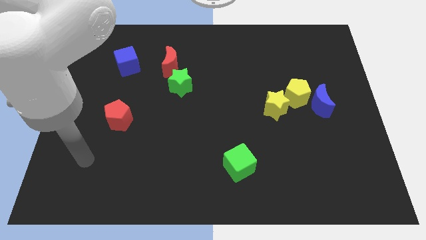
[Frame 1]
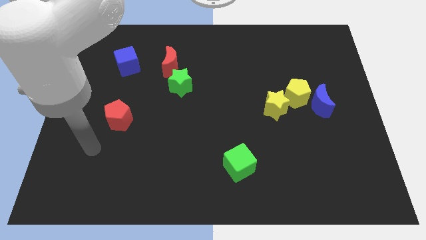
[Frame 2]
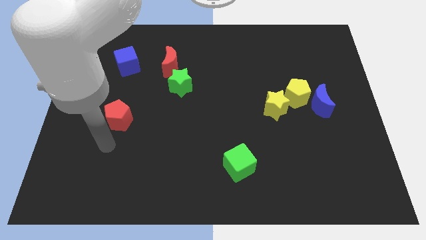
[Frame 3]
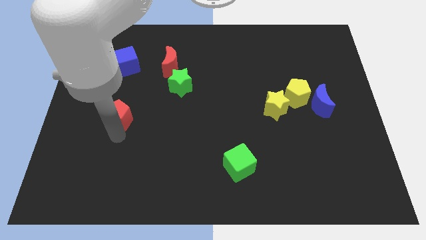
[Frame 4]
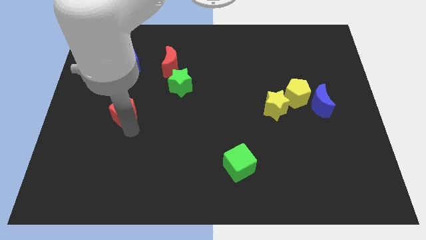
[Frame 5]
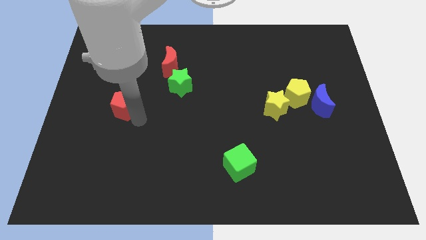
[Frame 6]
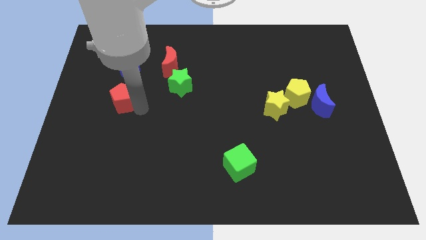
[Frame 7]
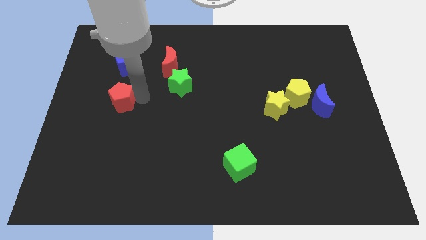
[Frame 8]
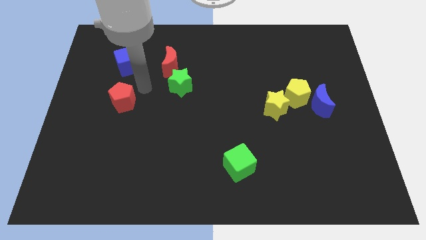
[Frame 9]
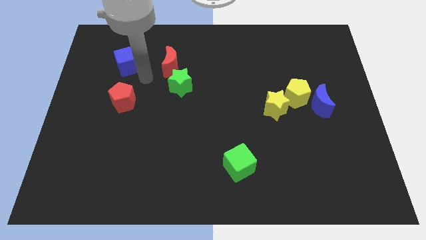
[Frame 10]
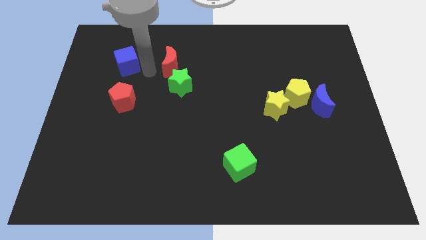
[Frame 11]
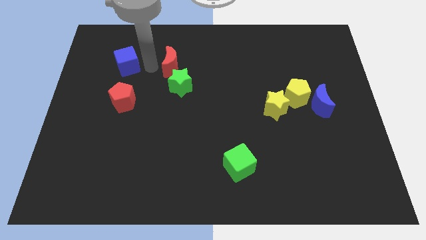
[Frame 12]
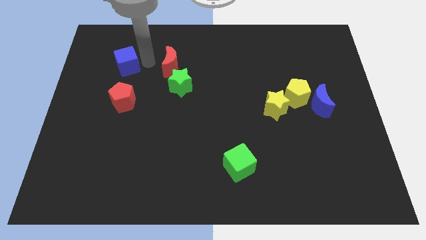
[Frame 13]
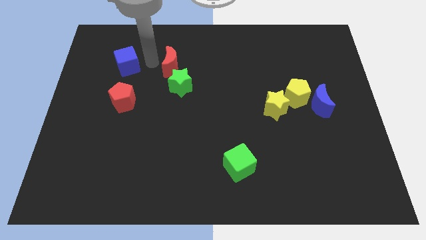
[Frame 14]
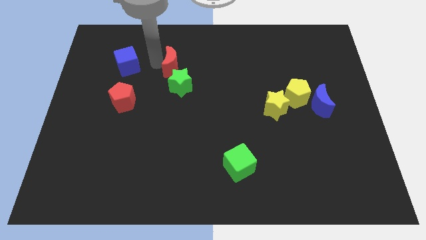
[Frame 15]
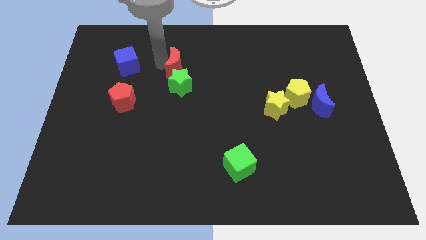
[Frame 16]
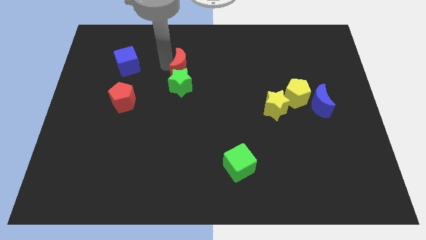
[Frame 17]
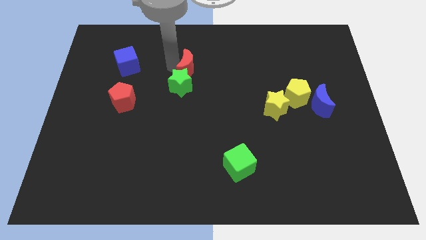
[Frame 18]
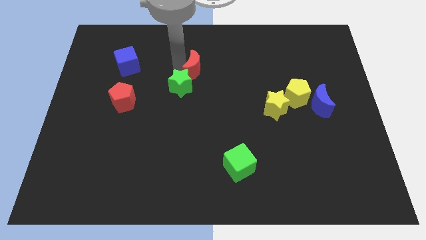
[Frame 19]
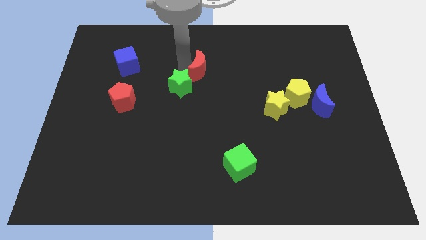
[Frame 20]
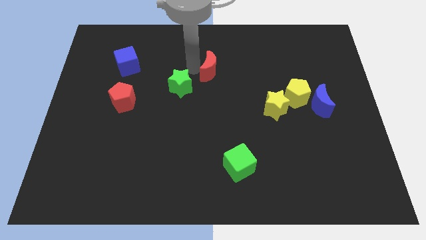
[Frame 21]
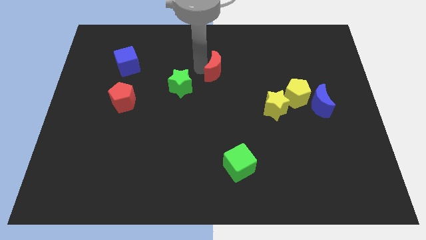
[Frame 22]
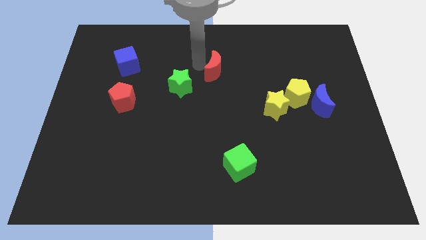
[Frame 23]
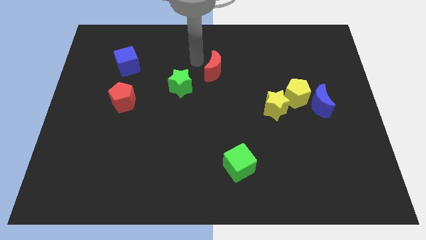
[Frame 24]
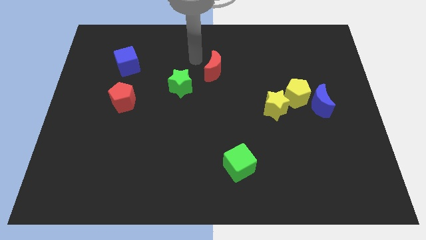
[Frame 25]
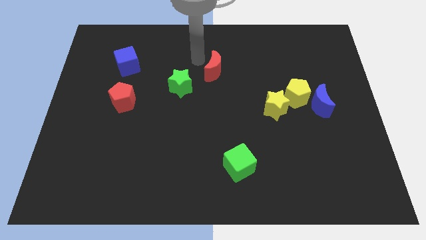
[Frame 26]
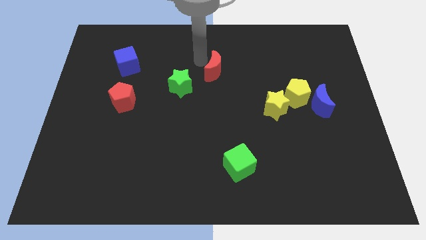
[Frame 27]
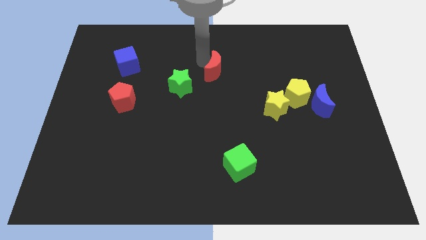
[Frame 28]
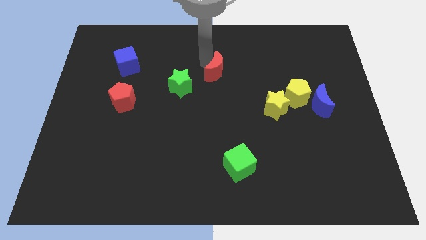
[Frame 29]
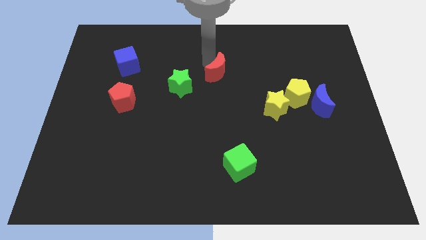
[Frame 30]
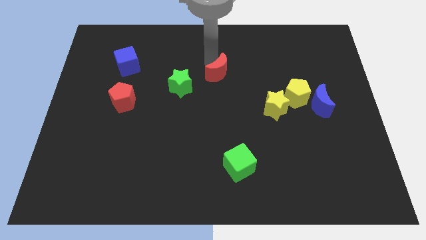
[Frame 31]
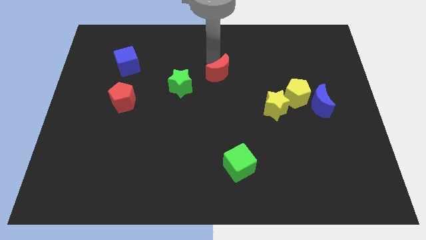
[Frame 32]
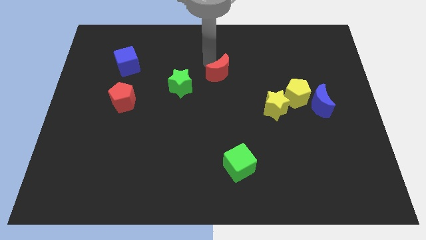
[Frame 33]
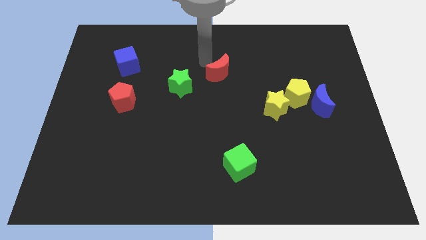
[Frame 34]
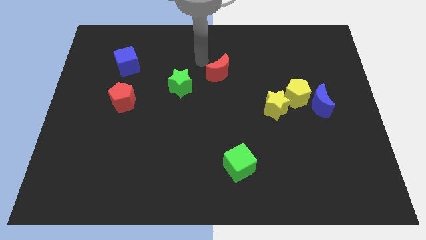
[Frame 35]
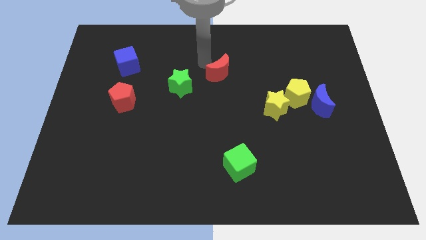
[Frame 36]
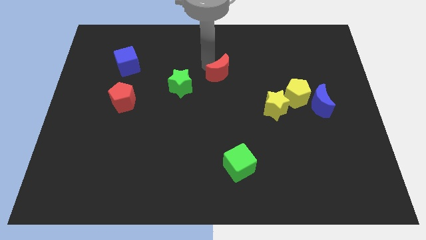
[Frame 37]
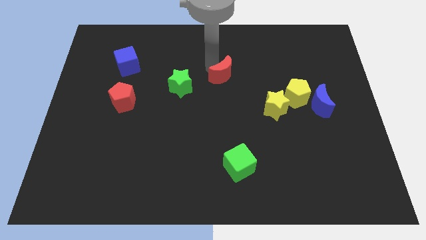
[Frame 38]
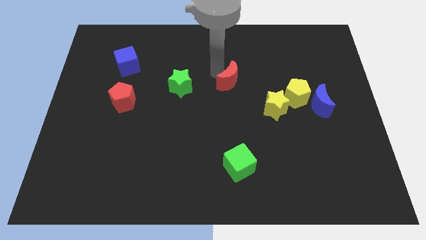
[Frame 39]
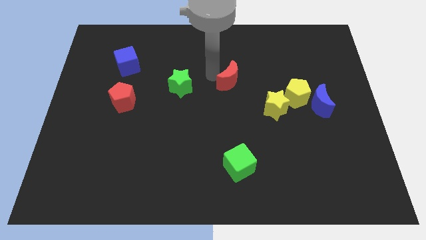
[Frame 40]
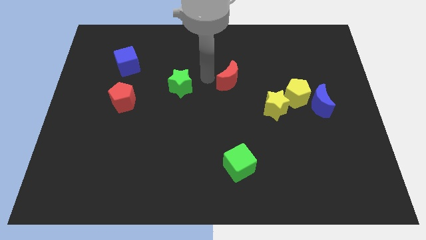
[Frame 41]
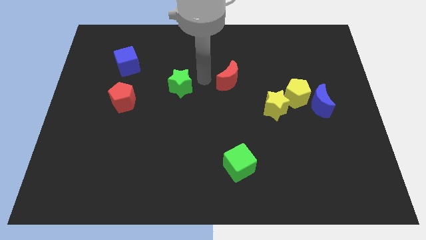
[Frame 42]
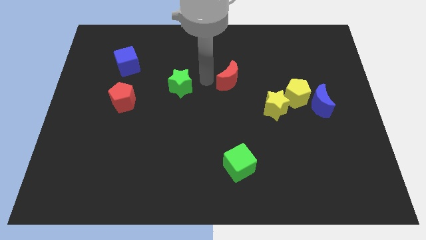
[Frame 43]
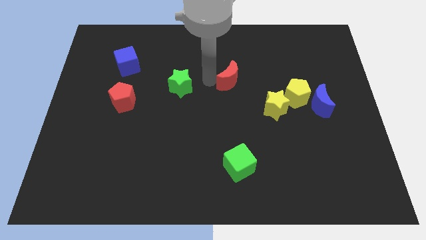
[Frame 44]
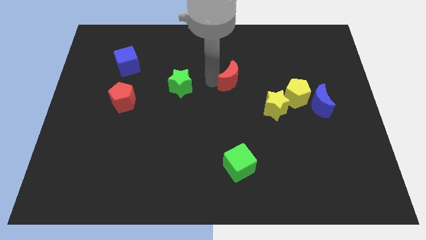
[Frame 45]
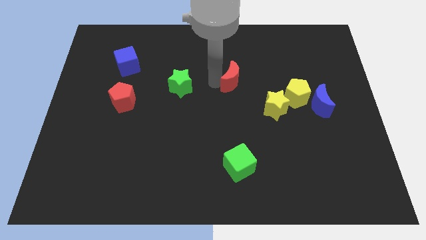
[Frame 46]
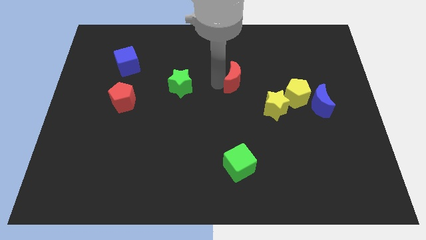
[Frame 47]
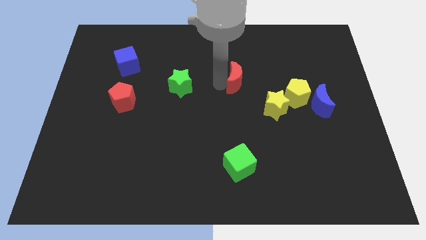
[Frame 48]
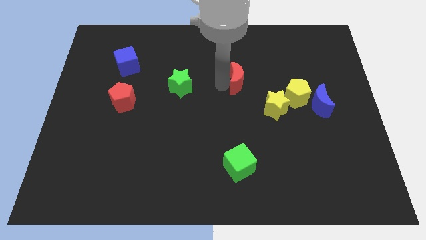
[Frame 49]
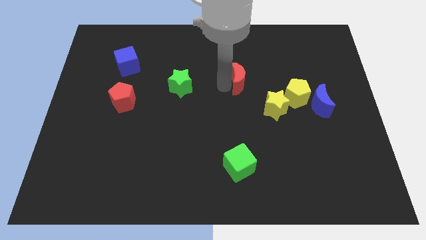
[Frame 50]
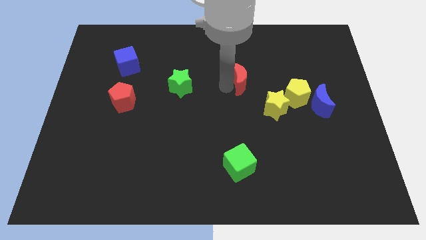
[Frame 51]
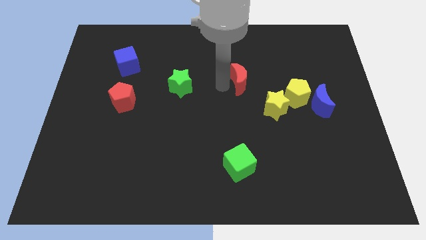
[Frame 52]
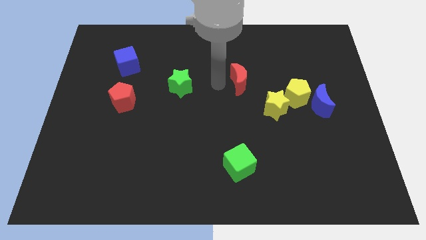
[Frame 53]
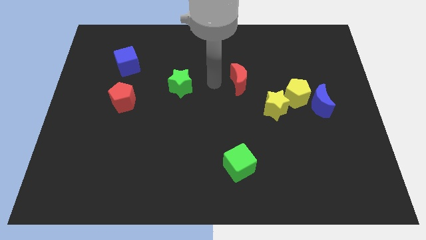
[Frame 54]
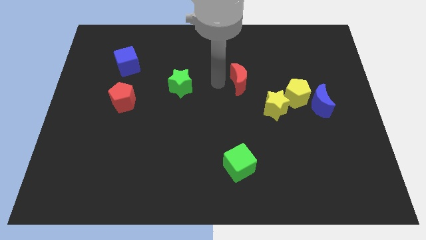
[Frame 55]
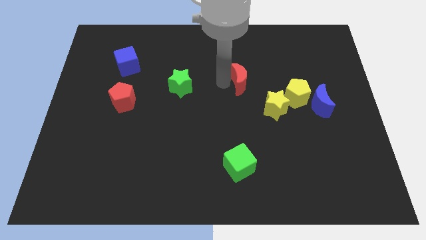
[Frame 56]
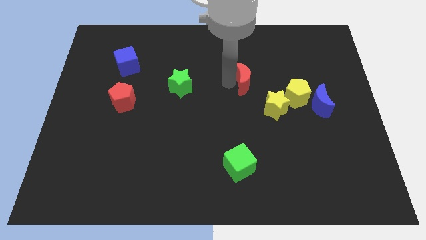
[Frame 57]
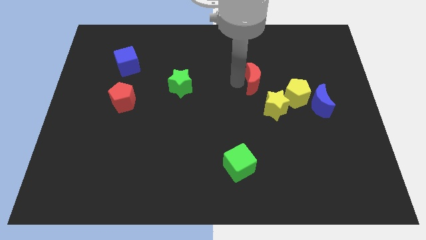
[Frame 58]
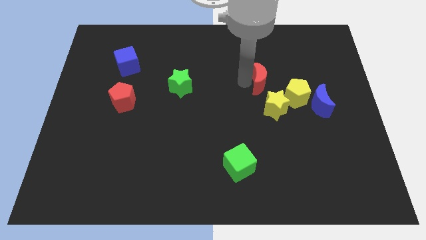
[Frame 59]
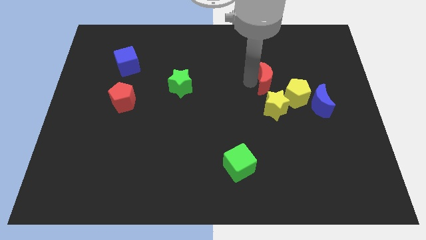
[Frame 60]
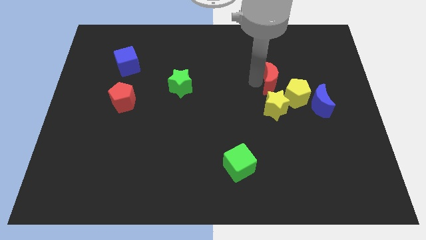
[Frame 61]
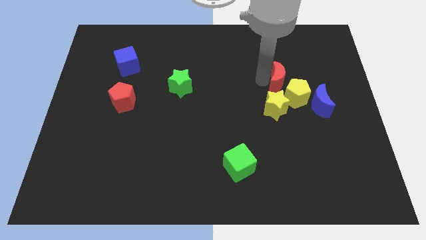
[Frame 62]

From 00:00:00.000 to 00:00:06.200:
slide the red moon close to the yellow pentagon

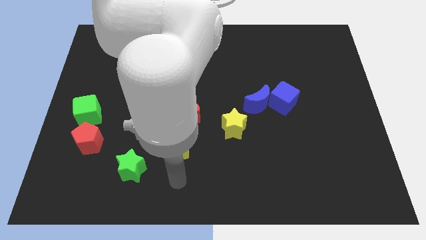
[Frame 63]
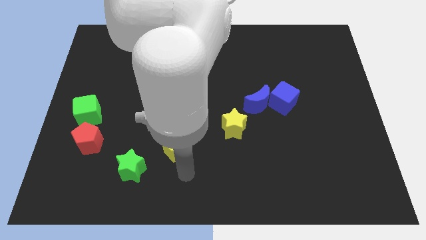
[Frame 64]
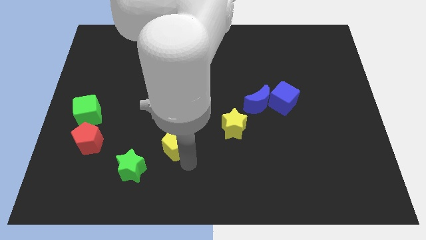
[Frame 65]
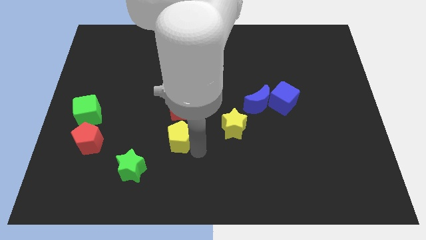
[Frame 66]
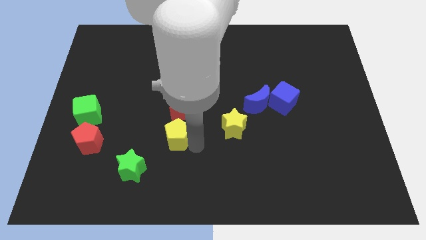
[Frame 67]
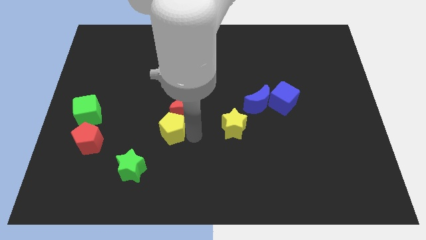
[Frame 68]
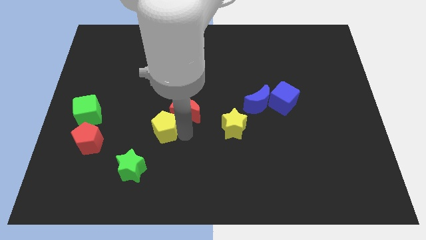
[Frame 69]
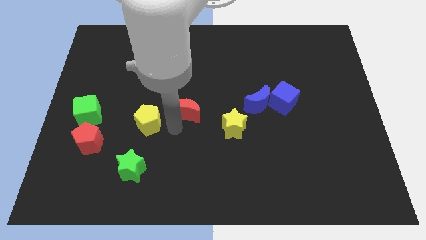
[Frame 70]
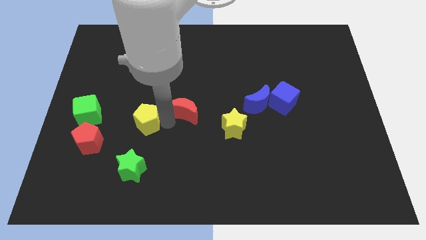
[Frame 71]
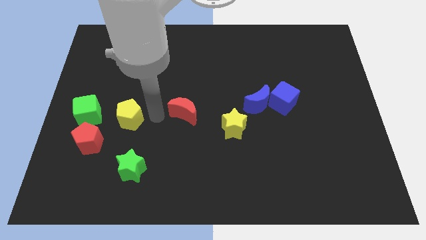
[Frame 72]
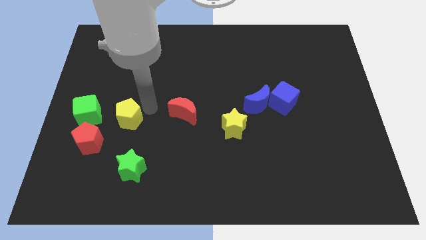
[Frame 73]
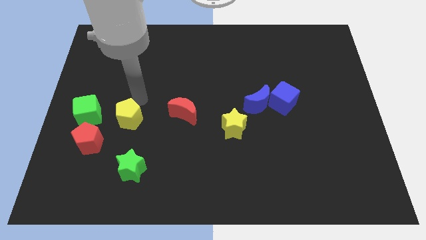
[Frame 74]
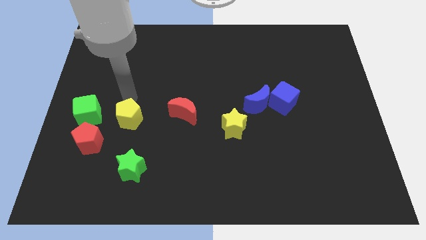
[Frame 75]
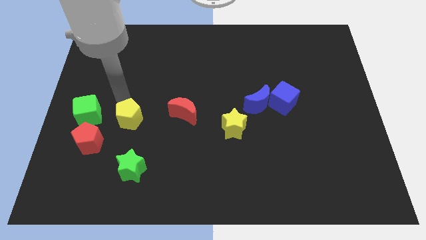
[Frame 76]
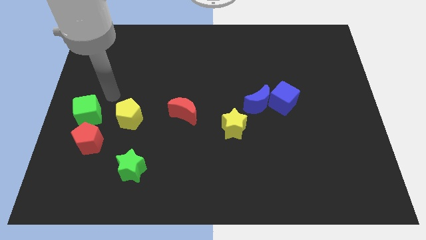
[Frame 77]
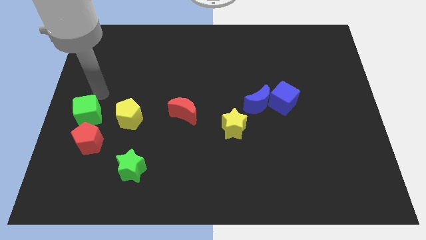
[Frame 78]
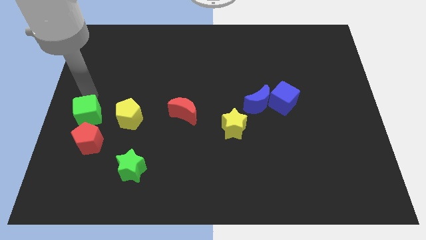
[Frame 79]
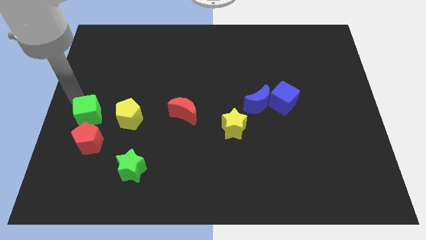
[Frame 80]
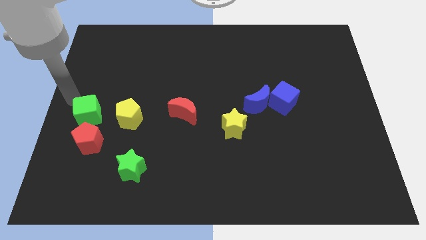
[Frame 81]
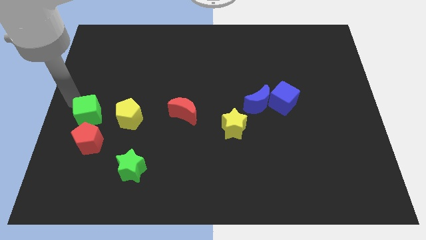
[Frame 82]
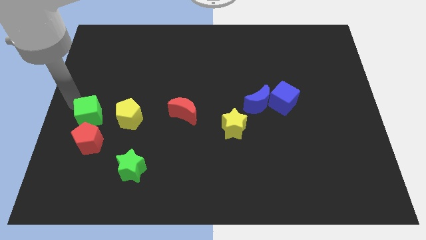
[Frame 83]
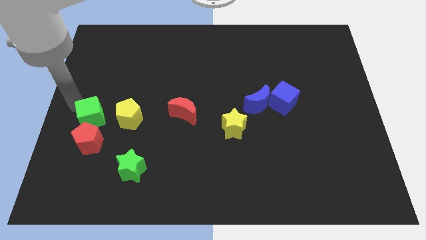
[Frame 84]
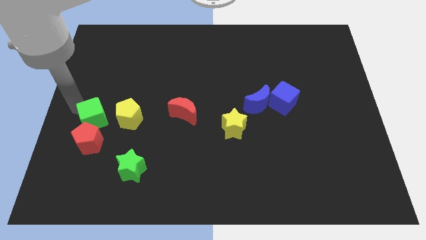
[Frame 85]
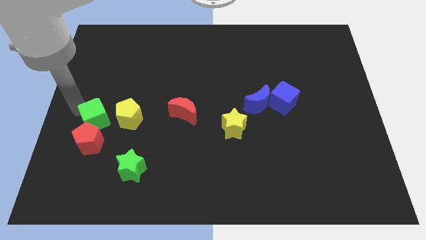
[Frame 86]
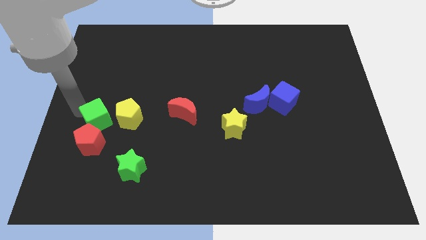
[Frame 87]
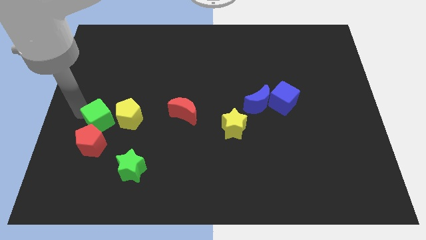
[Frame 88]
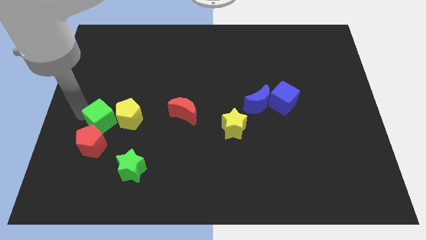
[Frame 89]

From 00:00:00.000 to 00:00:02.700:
push the green cube next to the yellow pentagon
